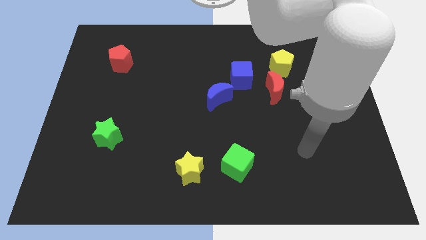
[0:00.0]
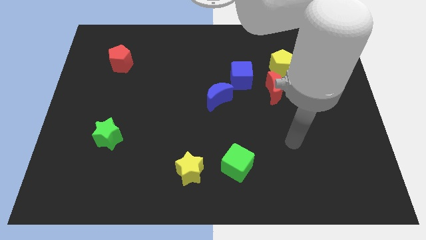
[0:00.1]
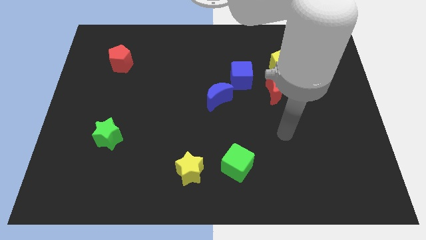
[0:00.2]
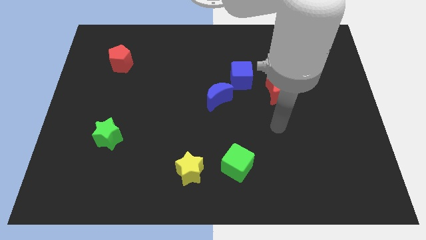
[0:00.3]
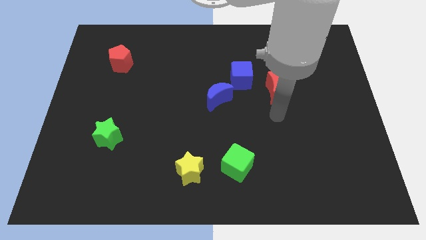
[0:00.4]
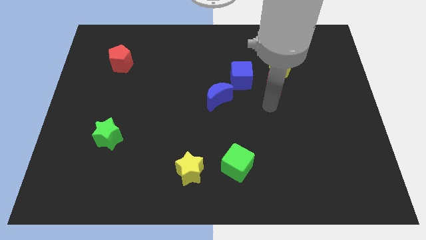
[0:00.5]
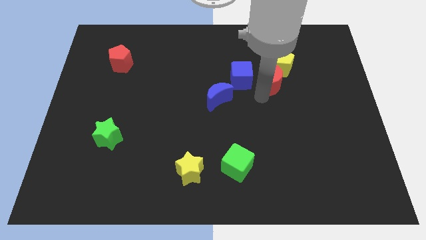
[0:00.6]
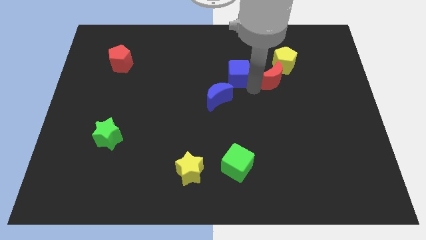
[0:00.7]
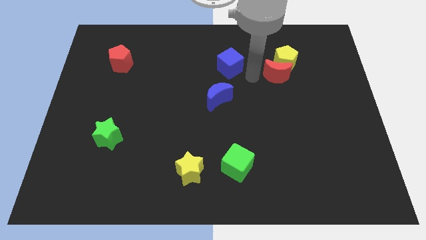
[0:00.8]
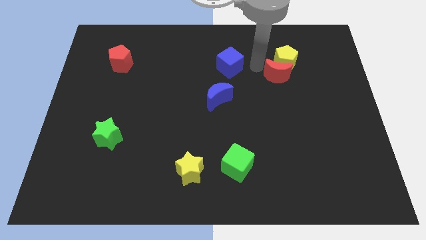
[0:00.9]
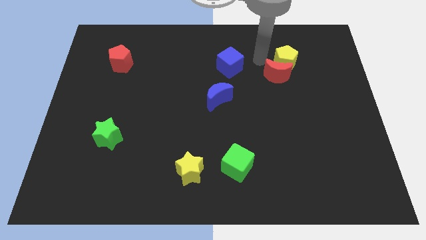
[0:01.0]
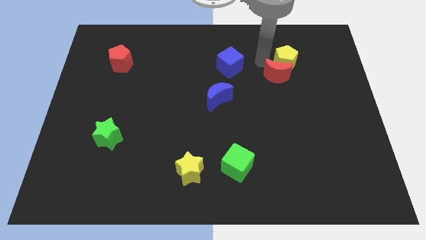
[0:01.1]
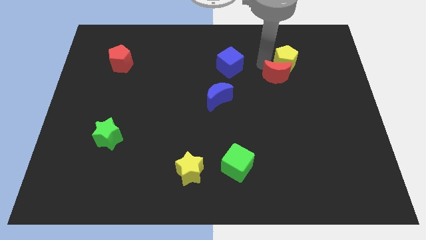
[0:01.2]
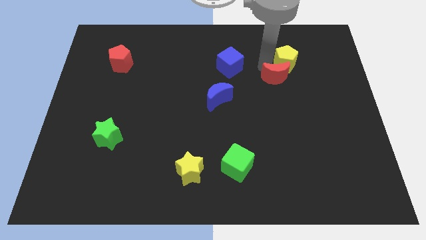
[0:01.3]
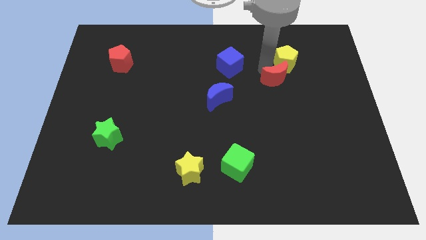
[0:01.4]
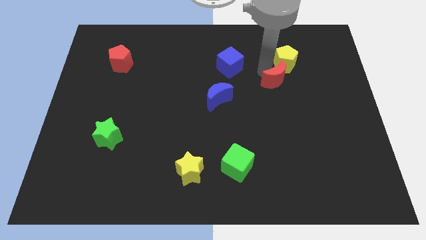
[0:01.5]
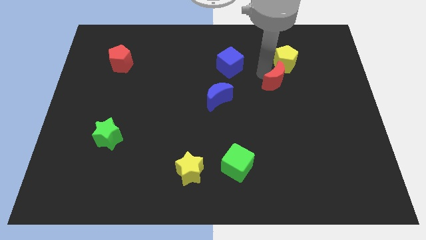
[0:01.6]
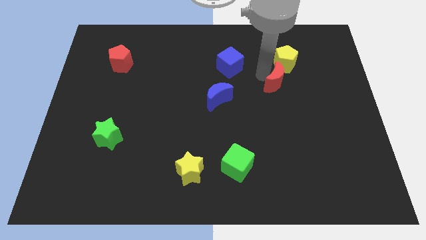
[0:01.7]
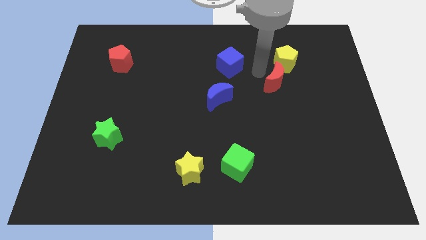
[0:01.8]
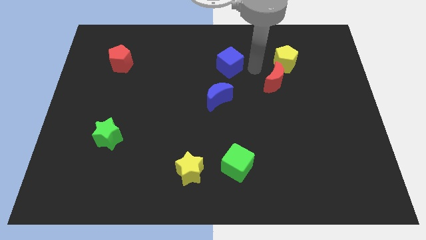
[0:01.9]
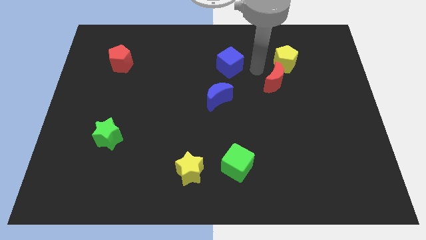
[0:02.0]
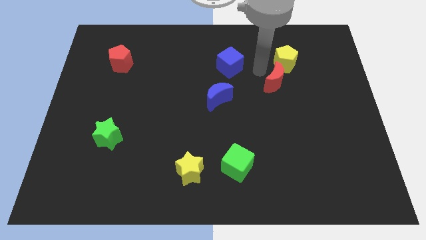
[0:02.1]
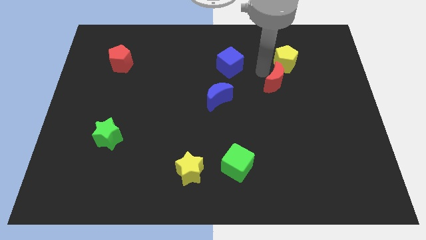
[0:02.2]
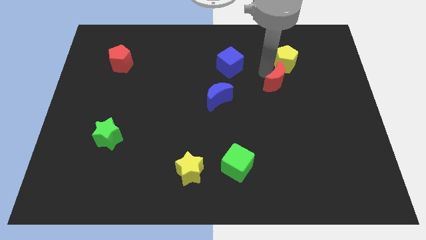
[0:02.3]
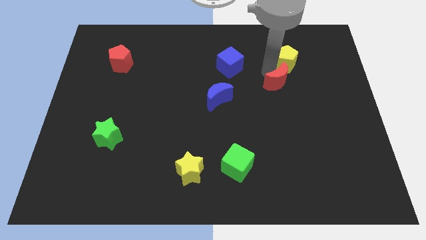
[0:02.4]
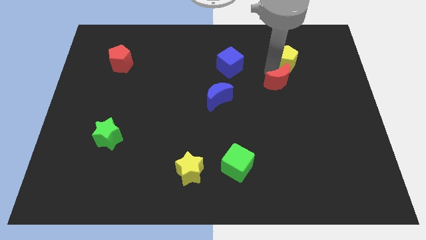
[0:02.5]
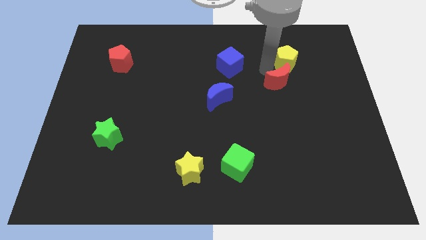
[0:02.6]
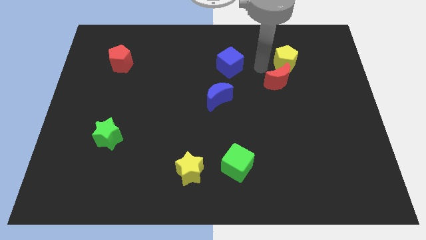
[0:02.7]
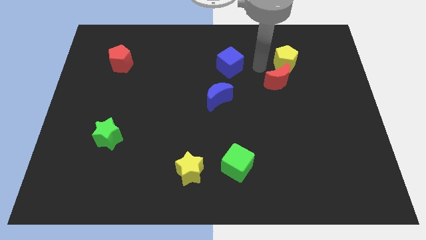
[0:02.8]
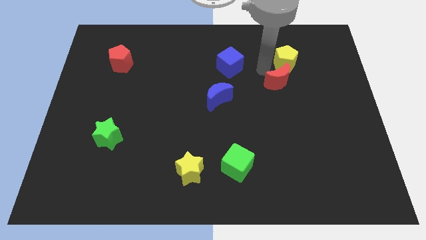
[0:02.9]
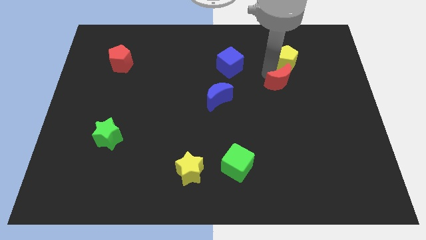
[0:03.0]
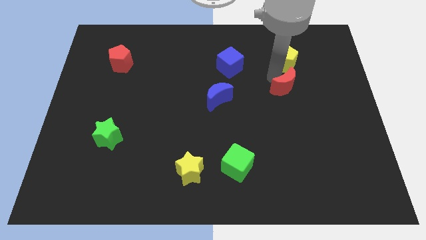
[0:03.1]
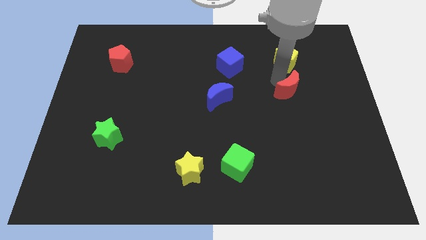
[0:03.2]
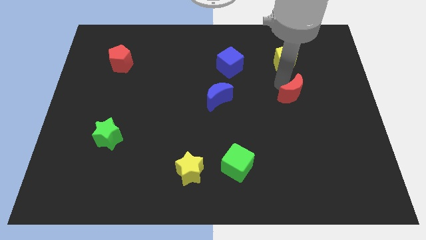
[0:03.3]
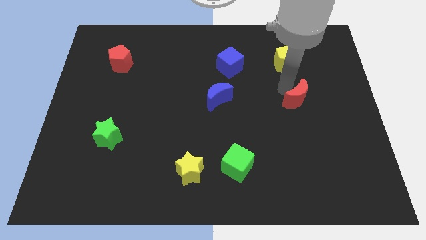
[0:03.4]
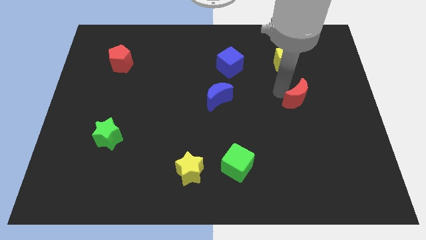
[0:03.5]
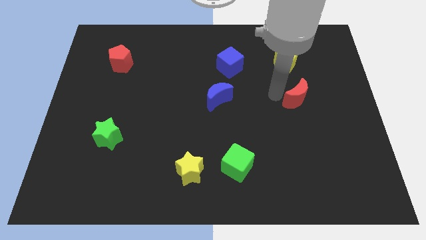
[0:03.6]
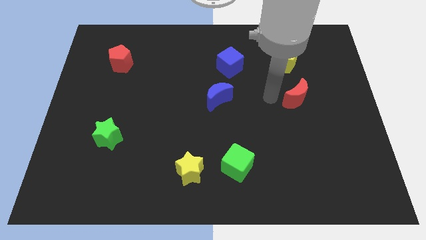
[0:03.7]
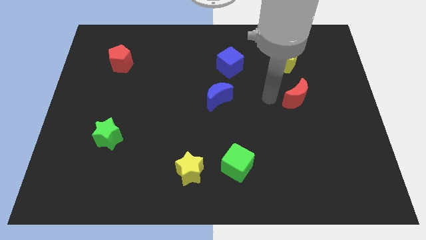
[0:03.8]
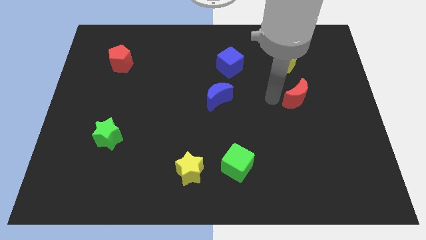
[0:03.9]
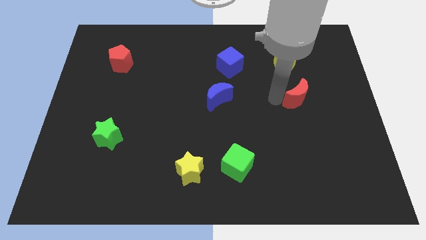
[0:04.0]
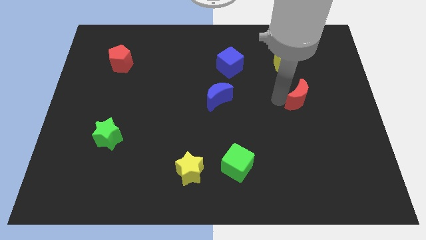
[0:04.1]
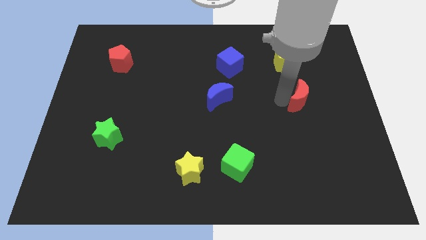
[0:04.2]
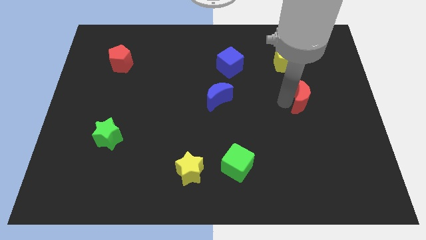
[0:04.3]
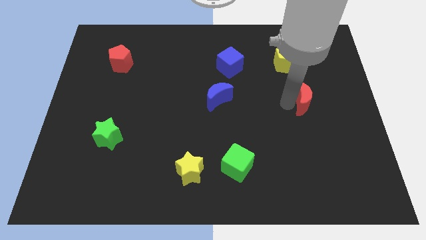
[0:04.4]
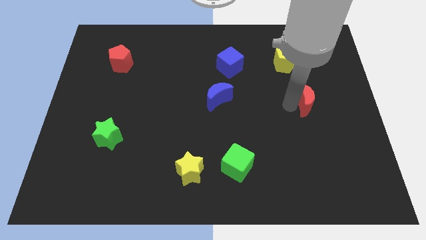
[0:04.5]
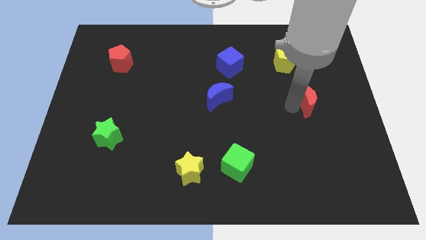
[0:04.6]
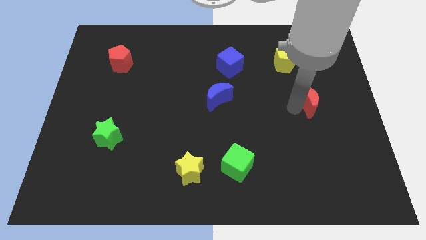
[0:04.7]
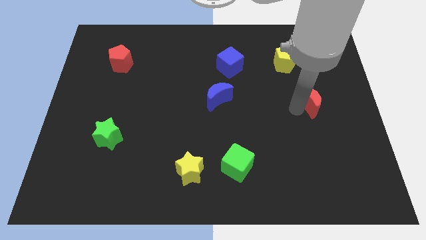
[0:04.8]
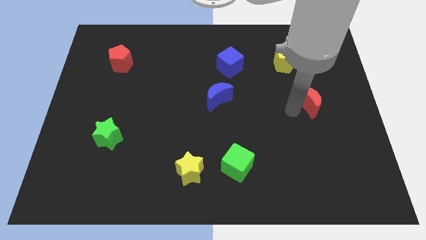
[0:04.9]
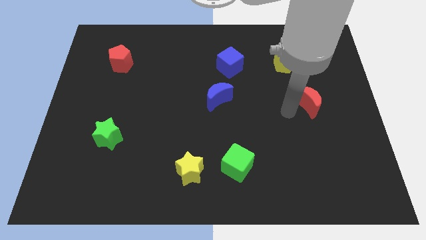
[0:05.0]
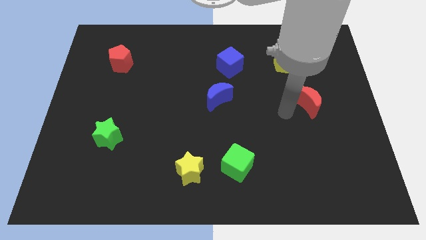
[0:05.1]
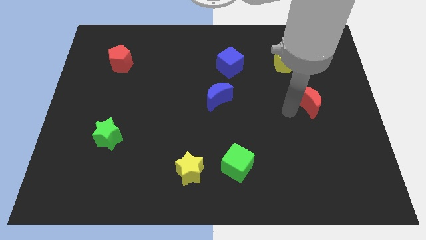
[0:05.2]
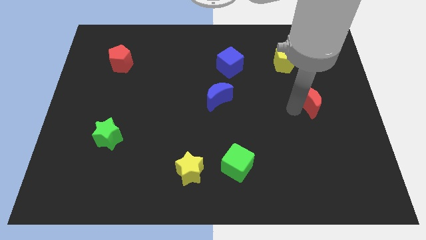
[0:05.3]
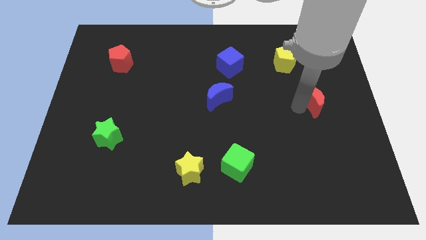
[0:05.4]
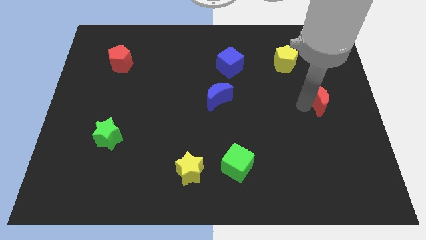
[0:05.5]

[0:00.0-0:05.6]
push the red moon to the center right
